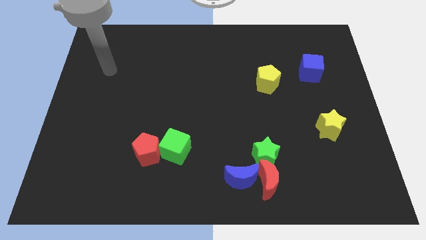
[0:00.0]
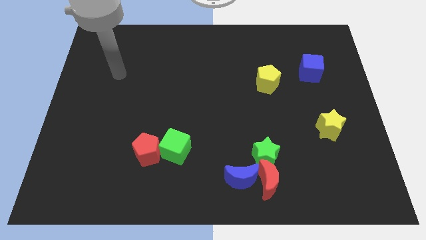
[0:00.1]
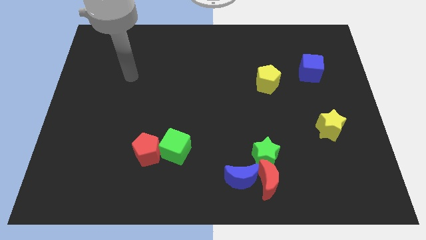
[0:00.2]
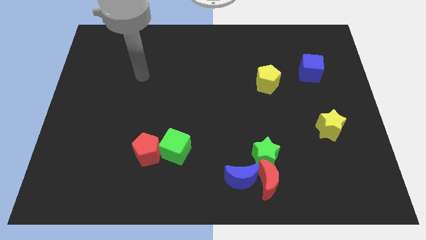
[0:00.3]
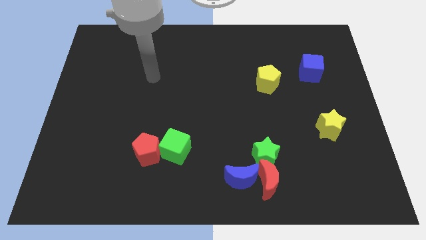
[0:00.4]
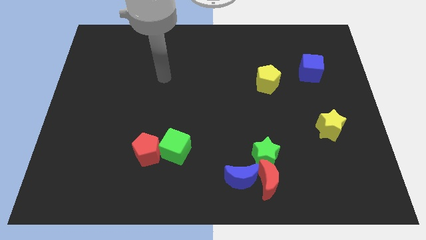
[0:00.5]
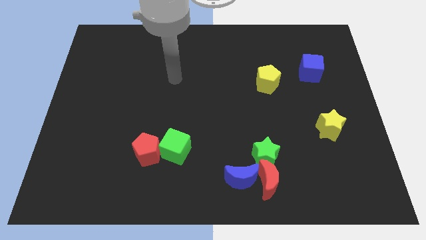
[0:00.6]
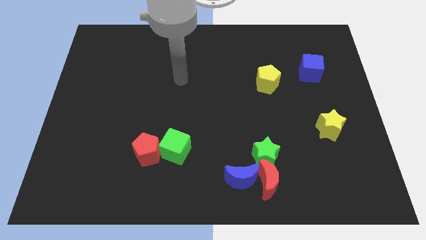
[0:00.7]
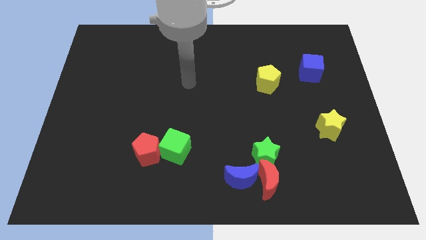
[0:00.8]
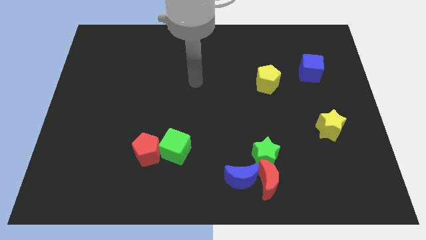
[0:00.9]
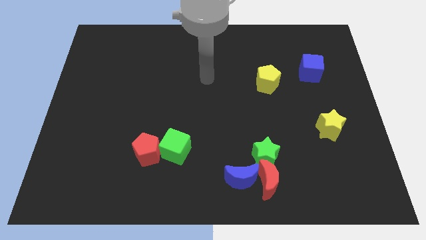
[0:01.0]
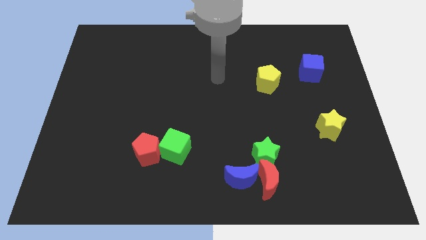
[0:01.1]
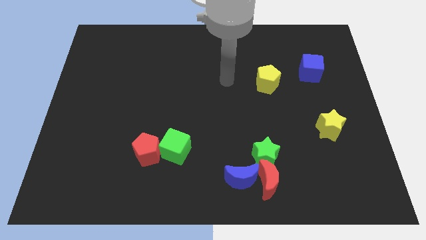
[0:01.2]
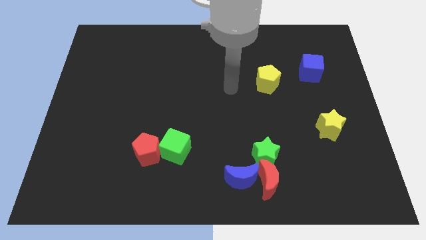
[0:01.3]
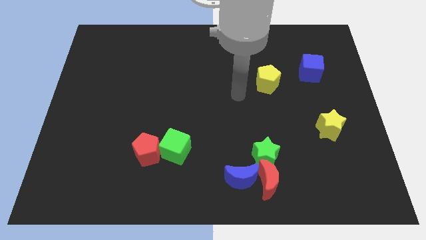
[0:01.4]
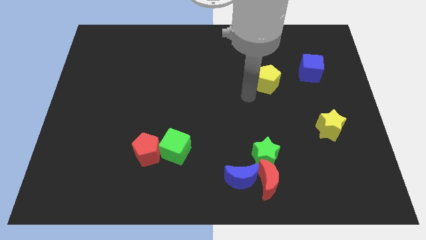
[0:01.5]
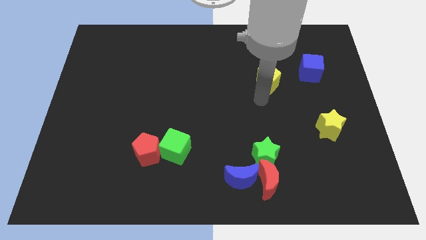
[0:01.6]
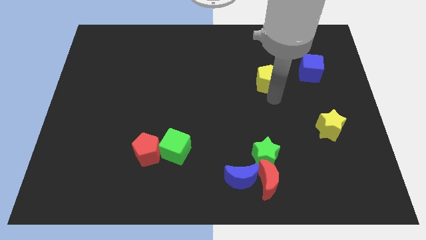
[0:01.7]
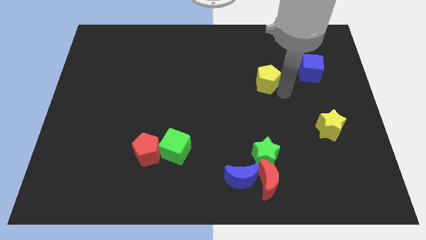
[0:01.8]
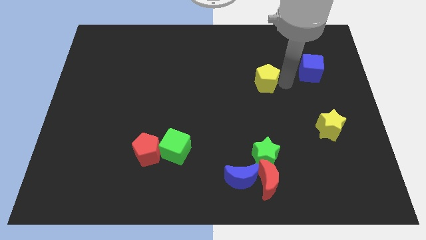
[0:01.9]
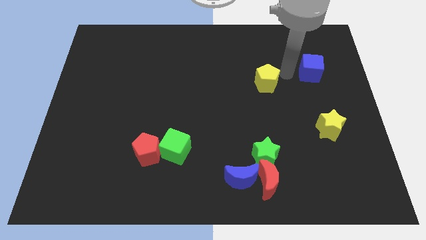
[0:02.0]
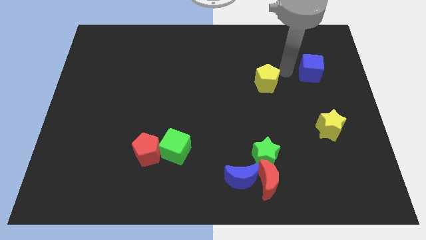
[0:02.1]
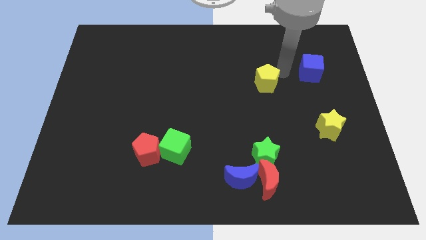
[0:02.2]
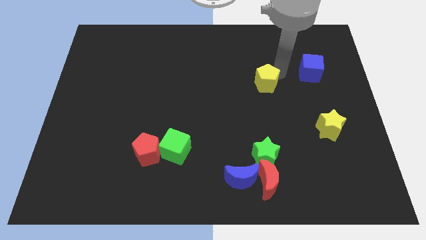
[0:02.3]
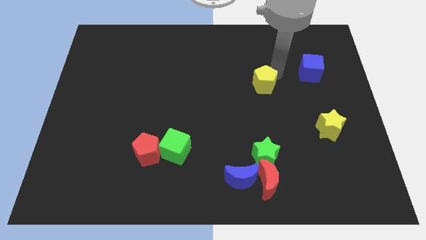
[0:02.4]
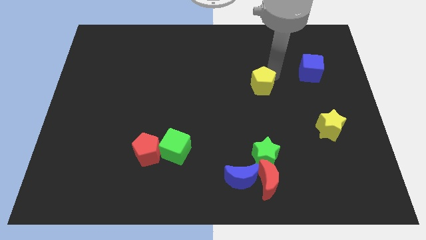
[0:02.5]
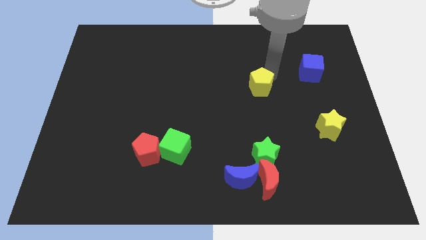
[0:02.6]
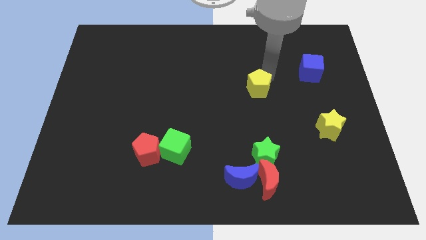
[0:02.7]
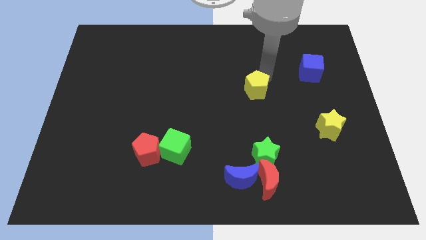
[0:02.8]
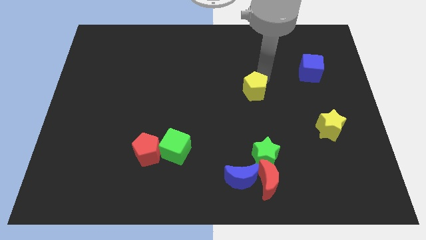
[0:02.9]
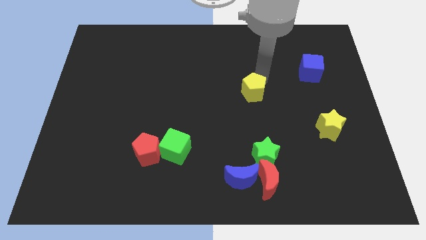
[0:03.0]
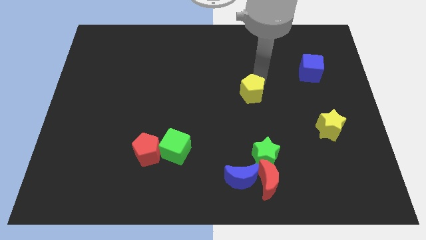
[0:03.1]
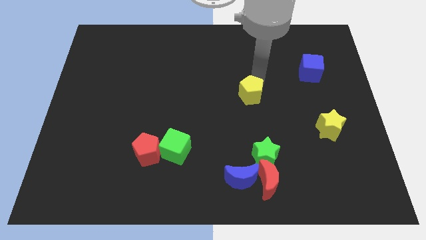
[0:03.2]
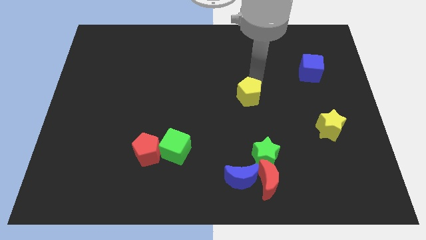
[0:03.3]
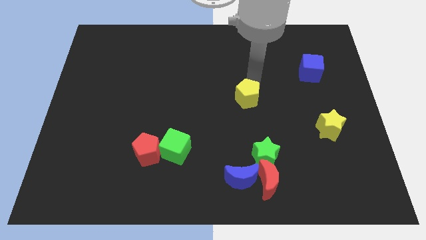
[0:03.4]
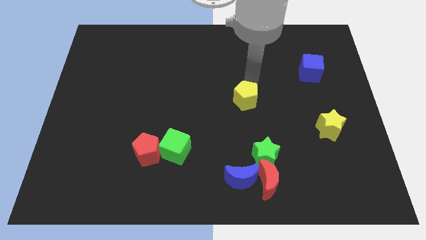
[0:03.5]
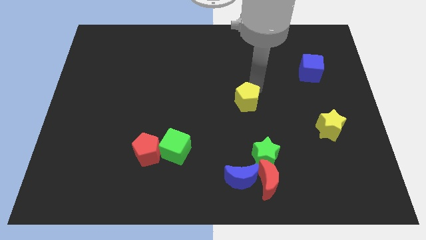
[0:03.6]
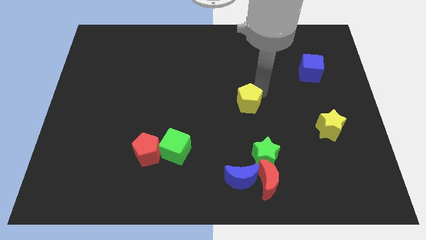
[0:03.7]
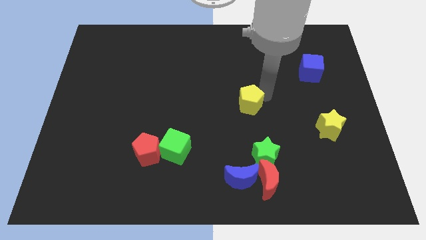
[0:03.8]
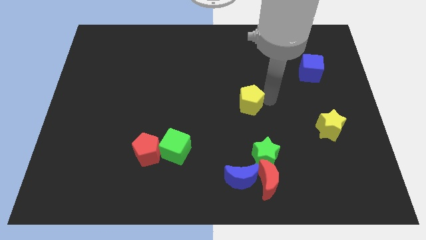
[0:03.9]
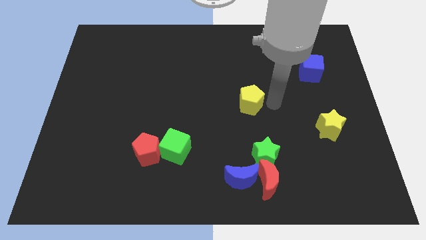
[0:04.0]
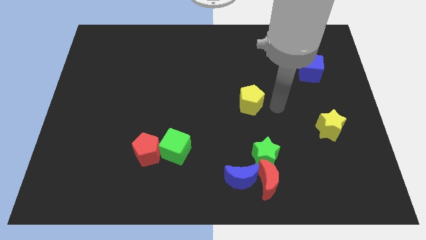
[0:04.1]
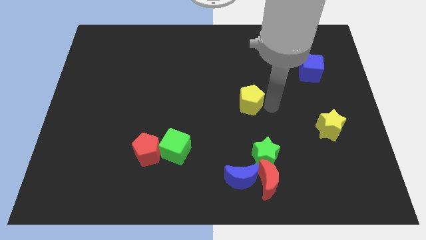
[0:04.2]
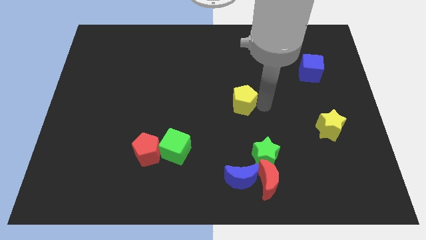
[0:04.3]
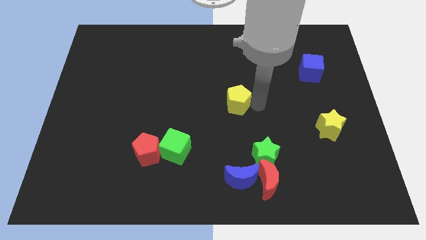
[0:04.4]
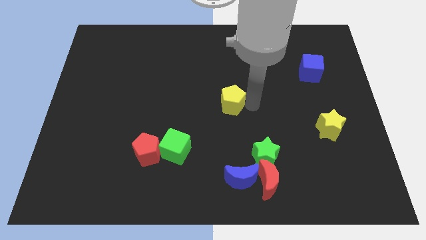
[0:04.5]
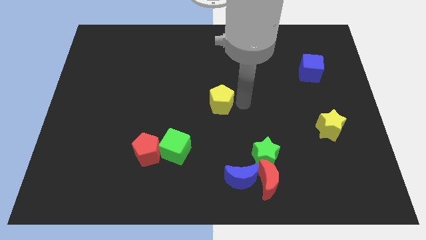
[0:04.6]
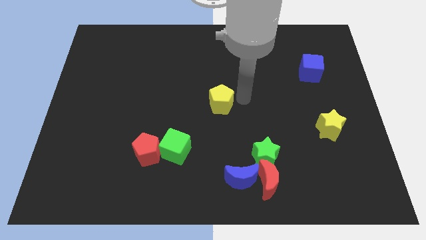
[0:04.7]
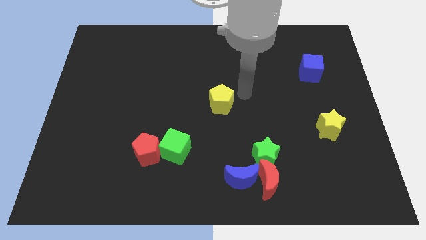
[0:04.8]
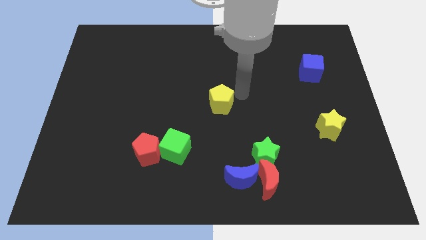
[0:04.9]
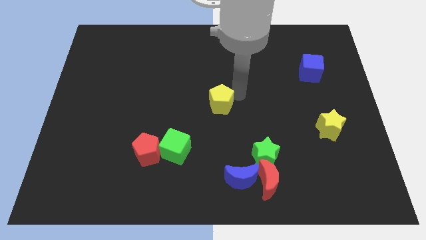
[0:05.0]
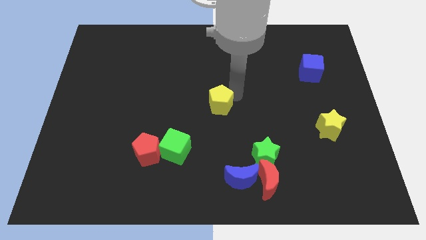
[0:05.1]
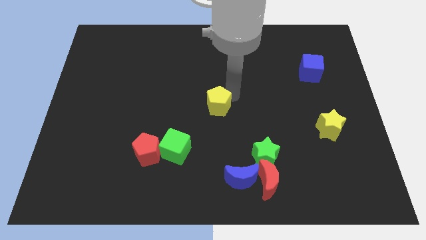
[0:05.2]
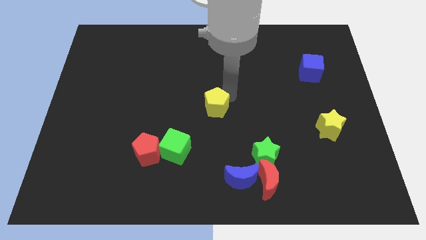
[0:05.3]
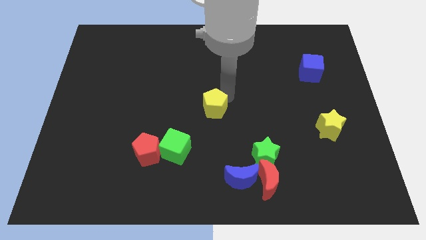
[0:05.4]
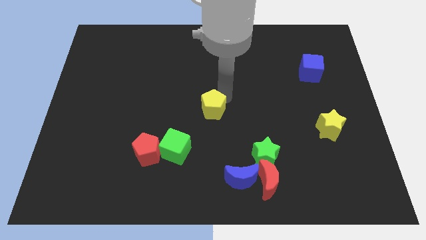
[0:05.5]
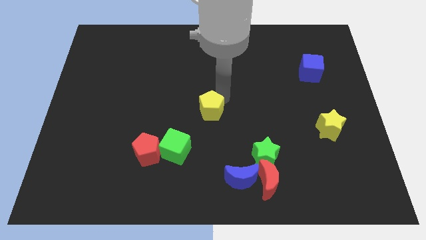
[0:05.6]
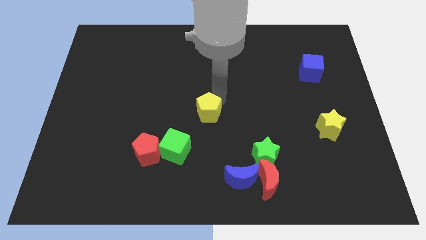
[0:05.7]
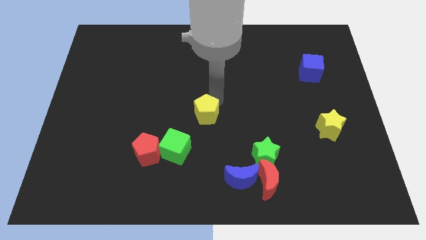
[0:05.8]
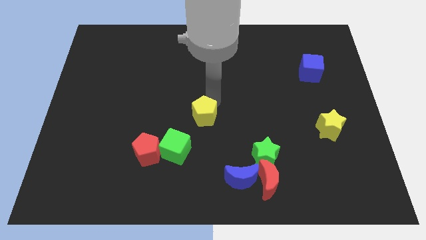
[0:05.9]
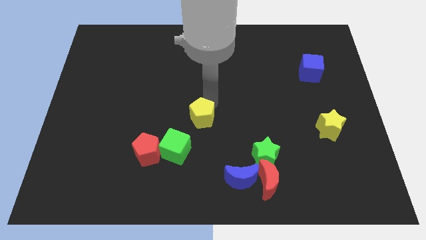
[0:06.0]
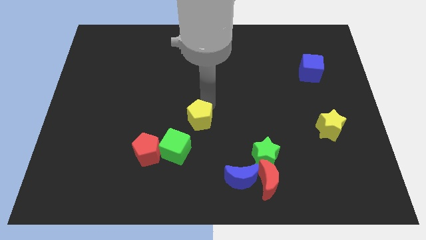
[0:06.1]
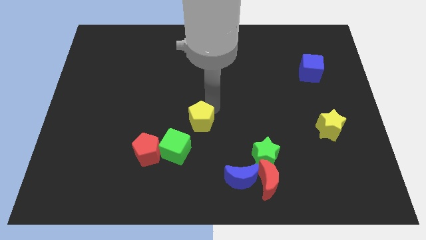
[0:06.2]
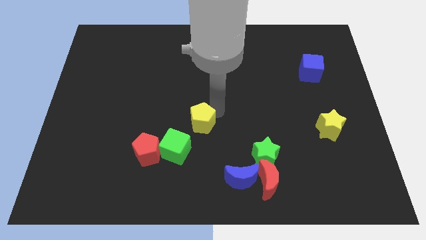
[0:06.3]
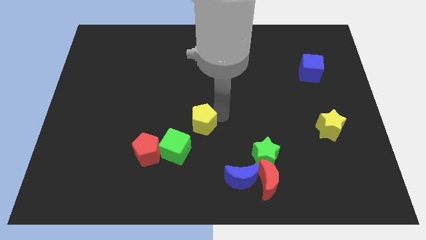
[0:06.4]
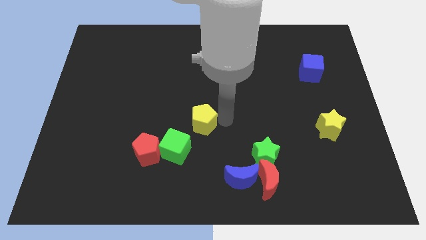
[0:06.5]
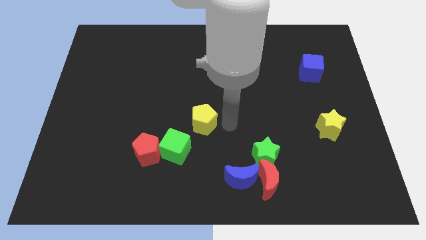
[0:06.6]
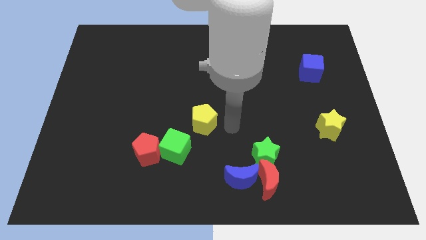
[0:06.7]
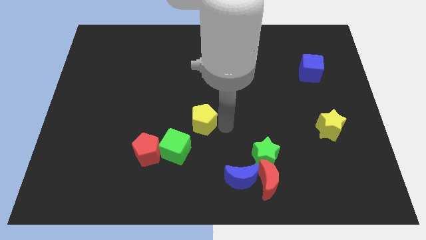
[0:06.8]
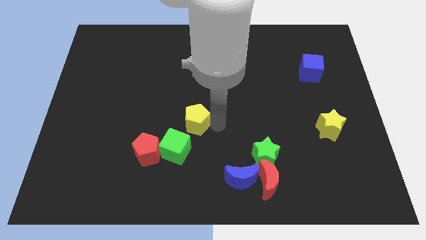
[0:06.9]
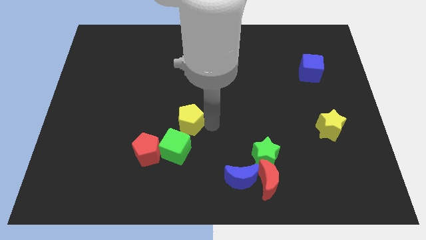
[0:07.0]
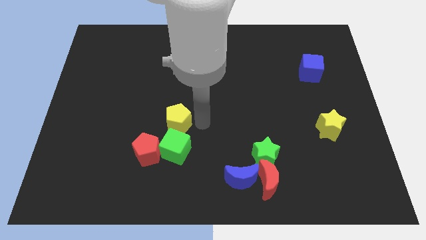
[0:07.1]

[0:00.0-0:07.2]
slide the yellow pentagon to the top left side of the green cube
